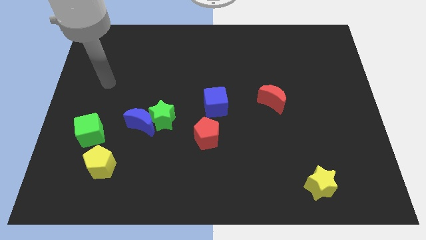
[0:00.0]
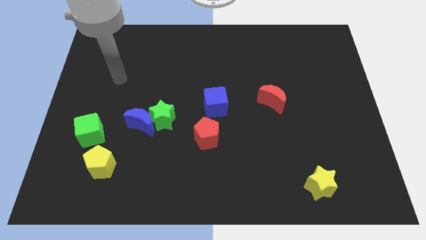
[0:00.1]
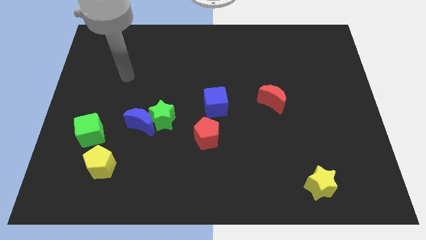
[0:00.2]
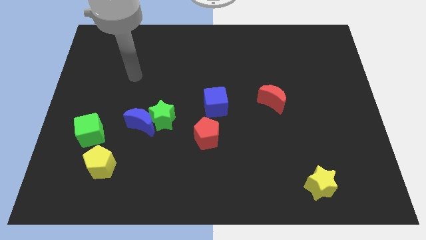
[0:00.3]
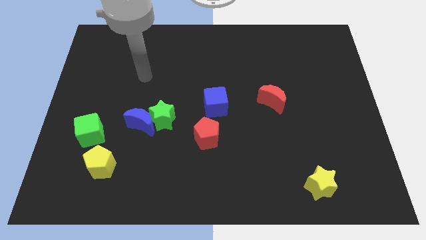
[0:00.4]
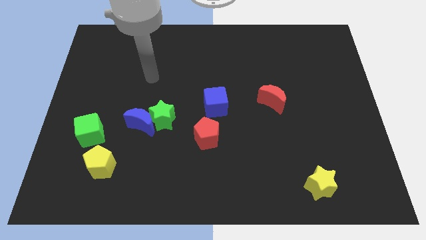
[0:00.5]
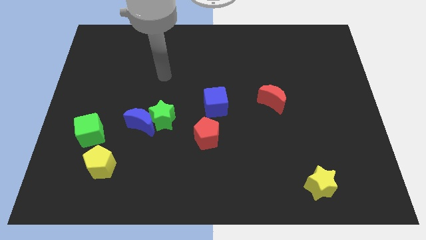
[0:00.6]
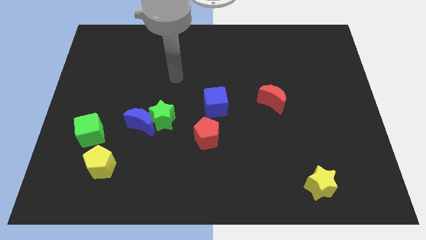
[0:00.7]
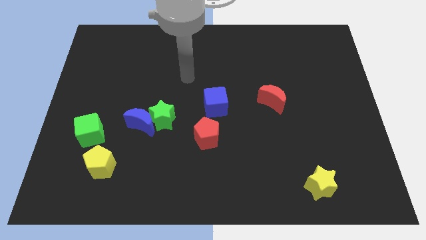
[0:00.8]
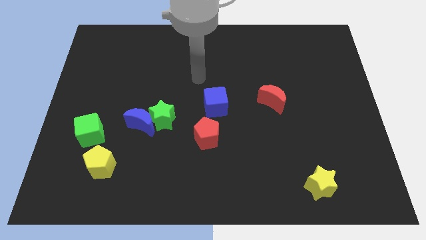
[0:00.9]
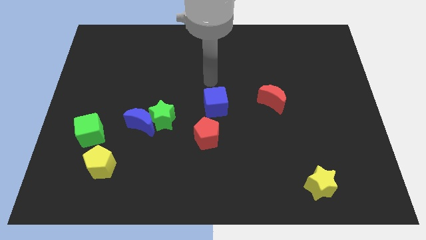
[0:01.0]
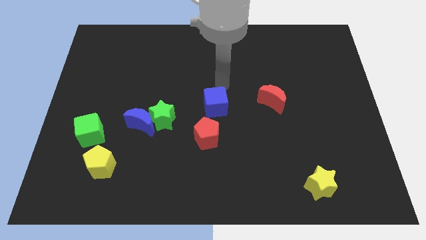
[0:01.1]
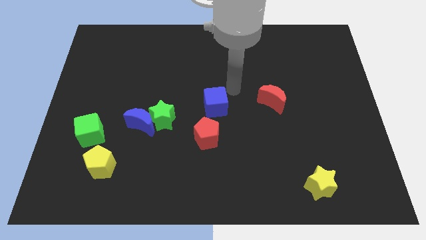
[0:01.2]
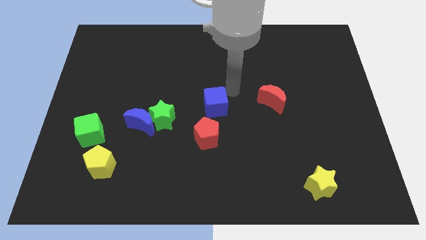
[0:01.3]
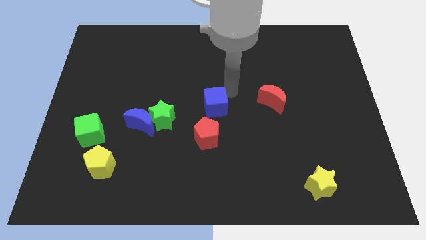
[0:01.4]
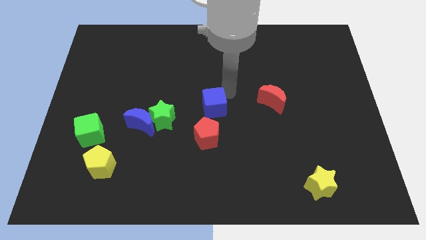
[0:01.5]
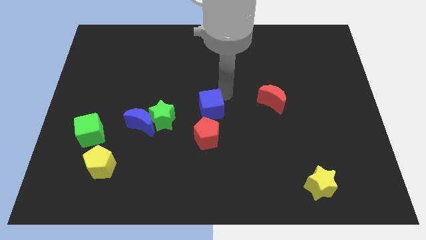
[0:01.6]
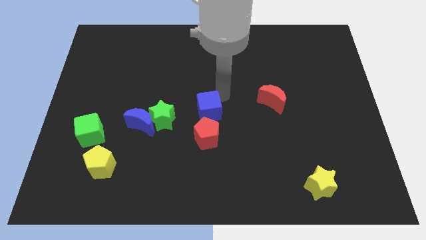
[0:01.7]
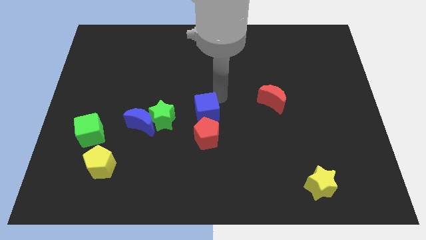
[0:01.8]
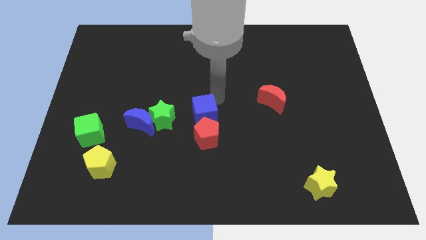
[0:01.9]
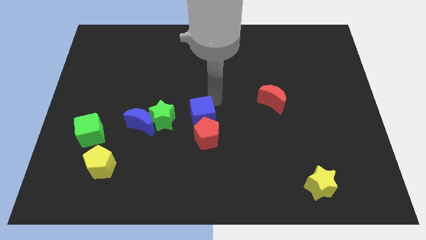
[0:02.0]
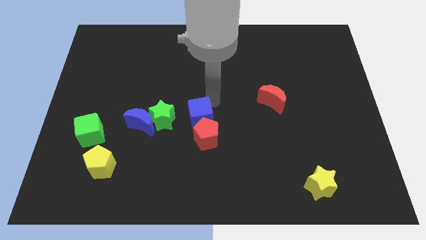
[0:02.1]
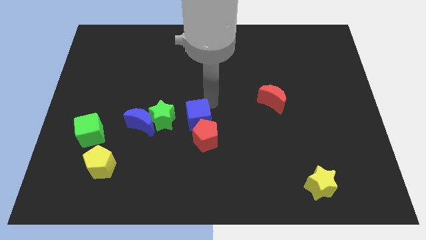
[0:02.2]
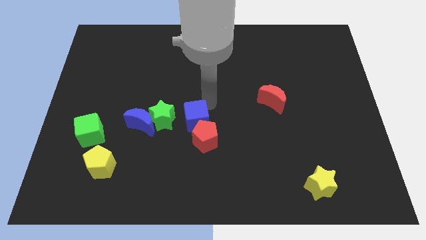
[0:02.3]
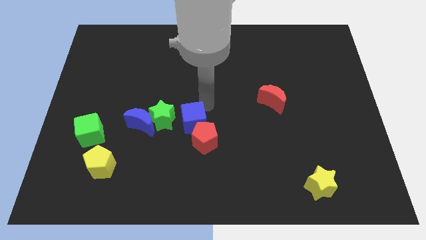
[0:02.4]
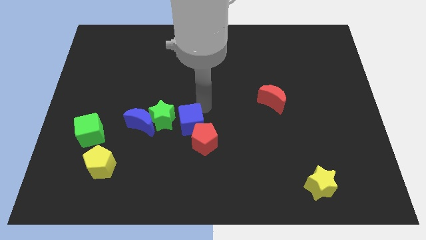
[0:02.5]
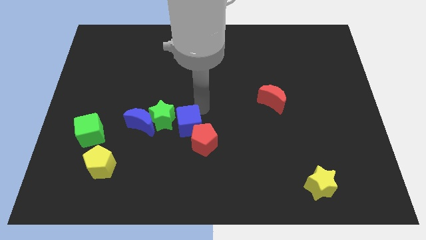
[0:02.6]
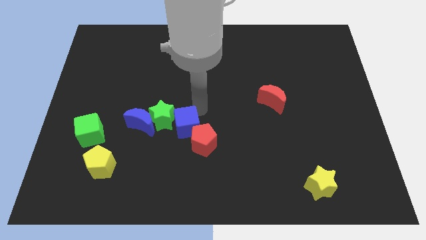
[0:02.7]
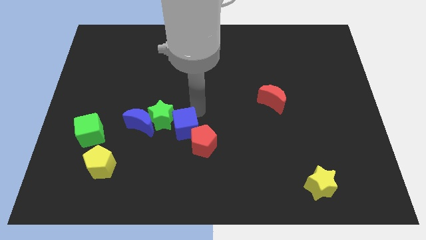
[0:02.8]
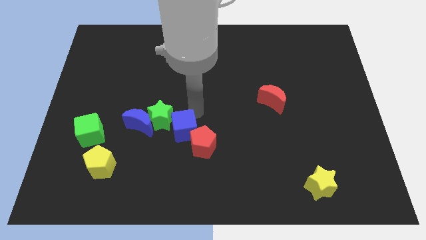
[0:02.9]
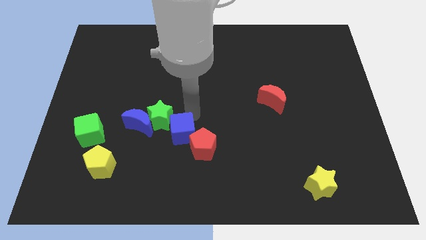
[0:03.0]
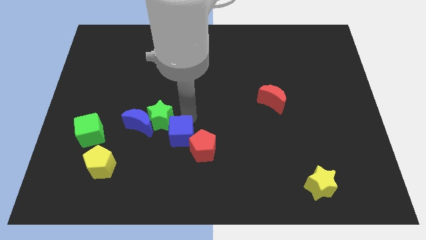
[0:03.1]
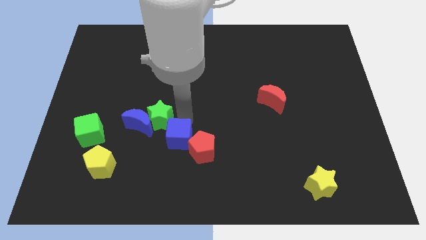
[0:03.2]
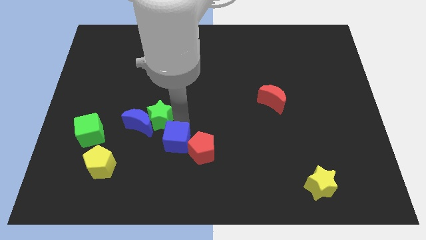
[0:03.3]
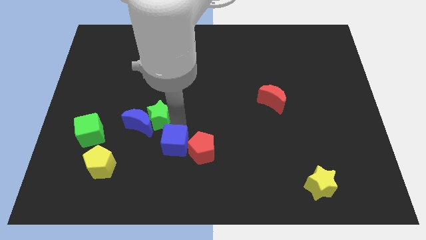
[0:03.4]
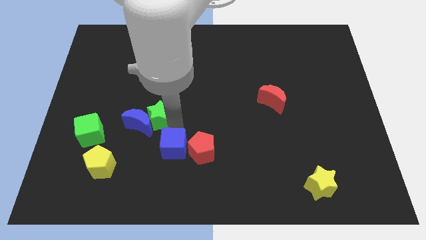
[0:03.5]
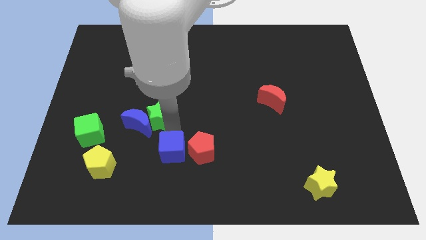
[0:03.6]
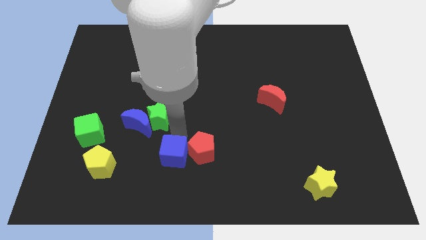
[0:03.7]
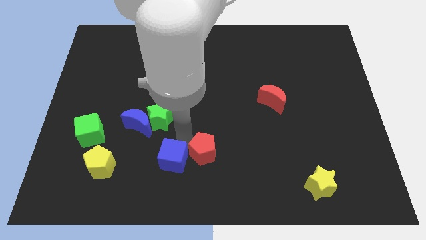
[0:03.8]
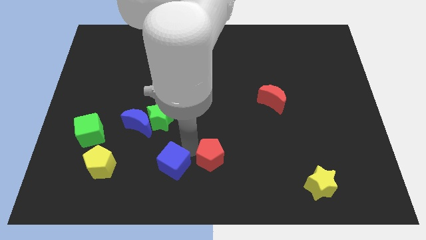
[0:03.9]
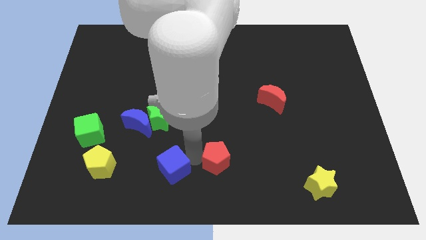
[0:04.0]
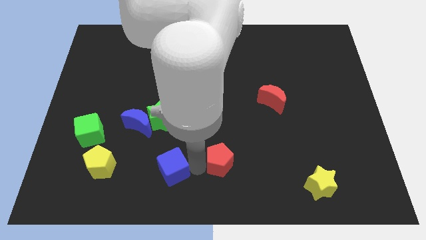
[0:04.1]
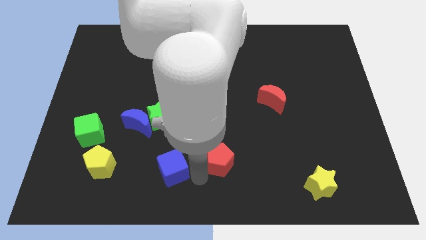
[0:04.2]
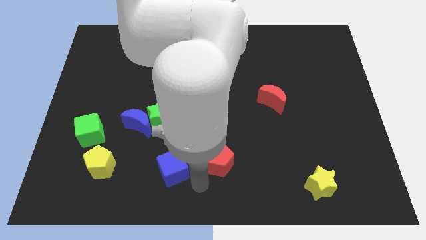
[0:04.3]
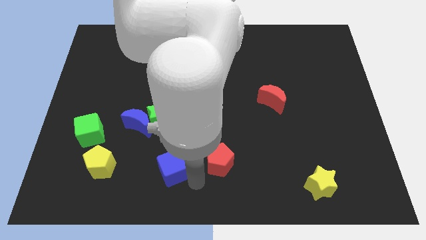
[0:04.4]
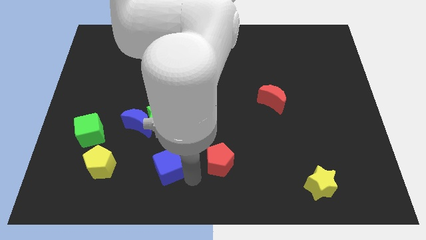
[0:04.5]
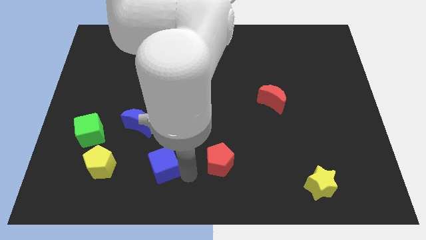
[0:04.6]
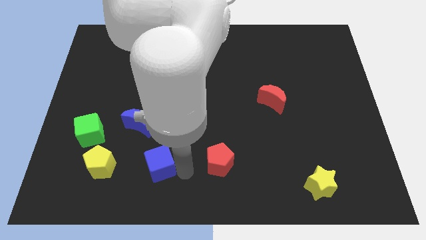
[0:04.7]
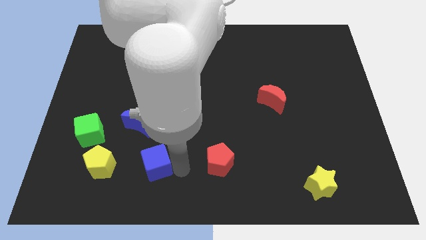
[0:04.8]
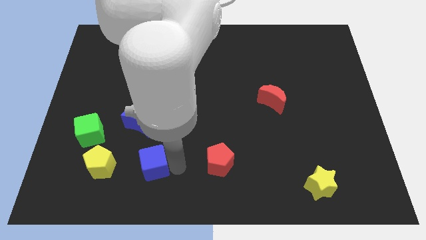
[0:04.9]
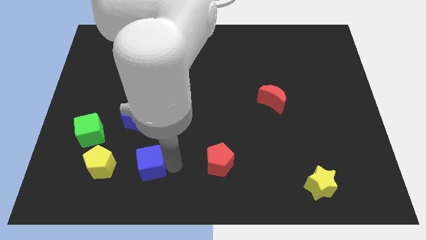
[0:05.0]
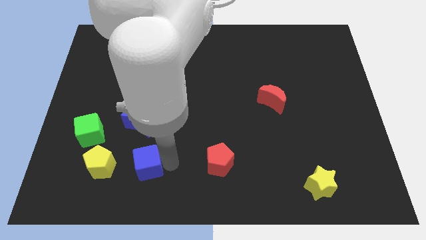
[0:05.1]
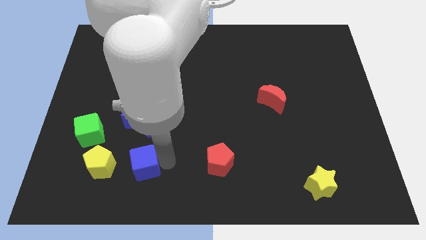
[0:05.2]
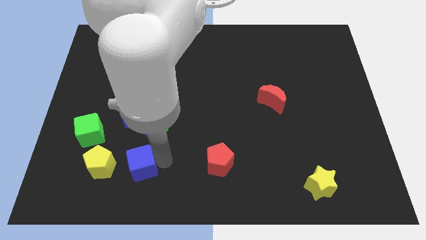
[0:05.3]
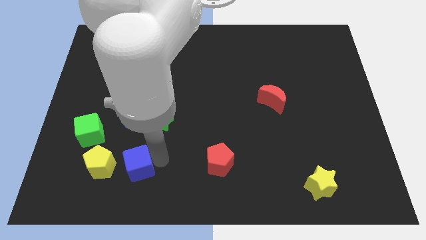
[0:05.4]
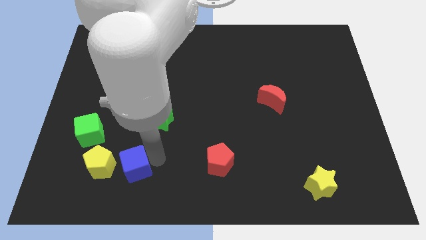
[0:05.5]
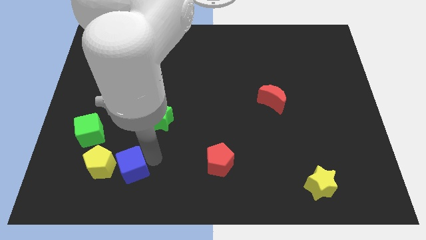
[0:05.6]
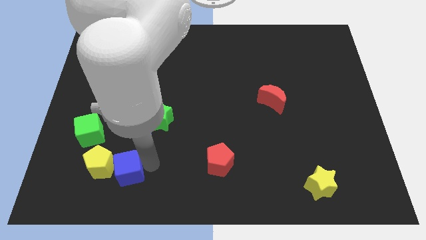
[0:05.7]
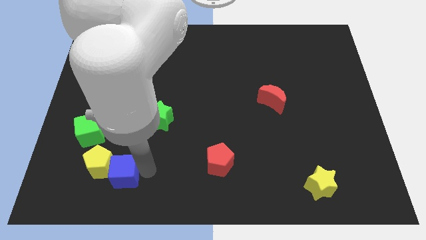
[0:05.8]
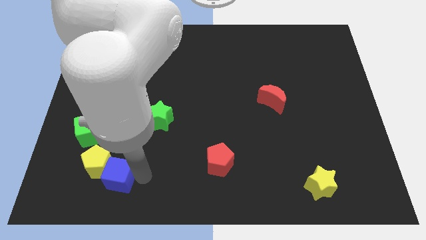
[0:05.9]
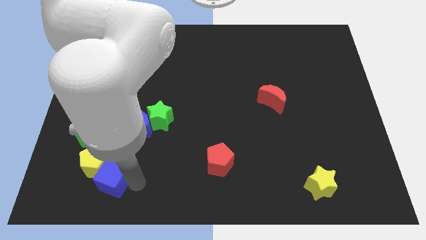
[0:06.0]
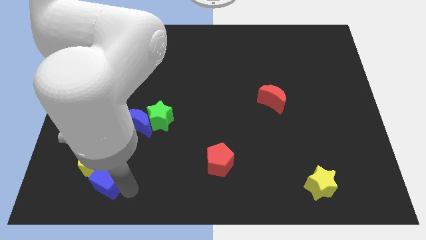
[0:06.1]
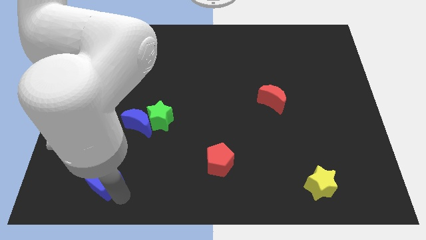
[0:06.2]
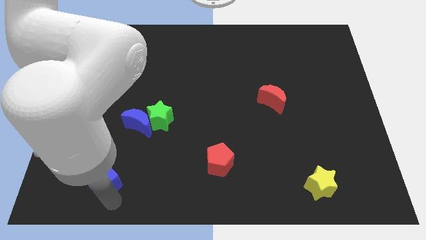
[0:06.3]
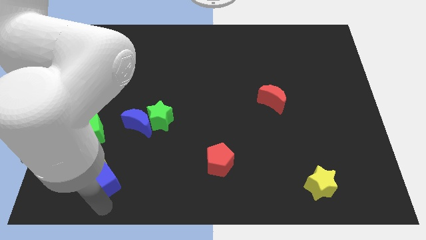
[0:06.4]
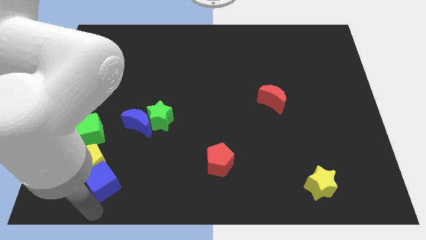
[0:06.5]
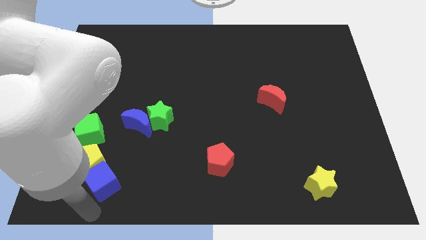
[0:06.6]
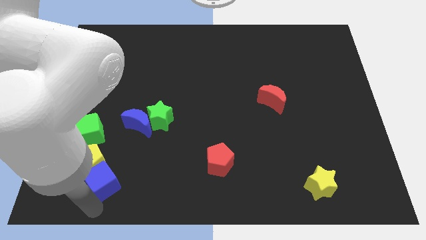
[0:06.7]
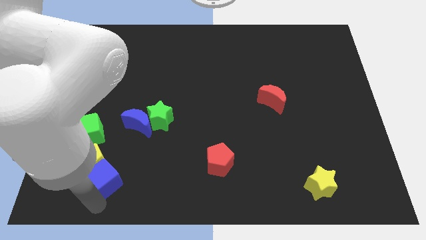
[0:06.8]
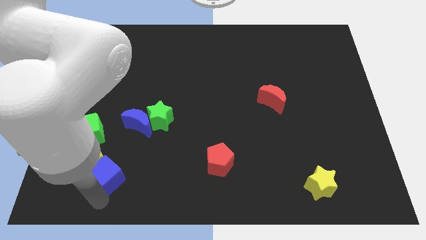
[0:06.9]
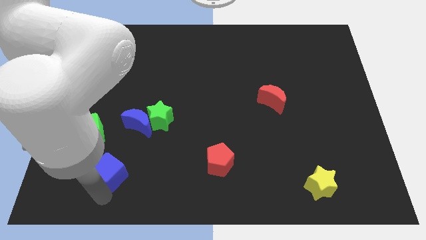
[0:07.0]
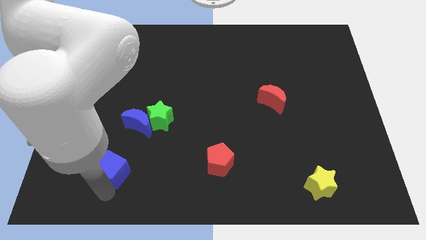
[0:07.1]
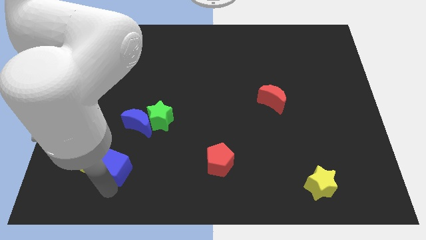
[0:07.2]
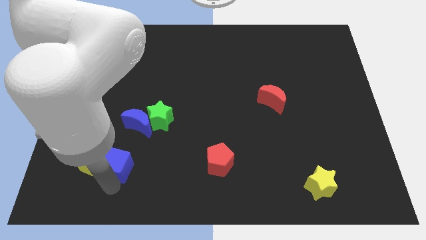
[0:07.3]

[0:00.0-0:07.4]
put the blue cube to the top right of the yellow pentagon
